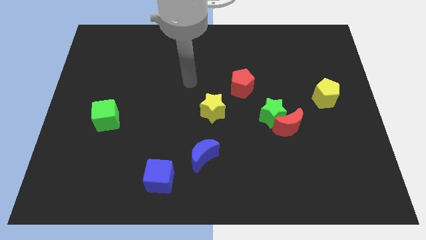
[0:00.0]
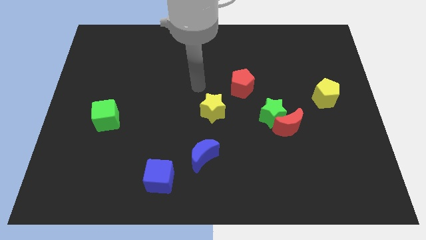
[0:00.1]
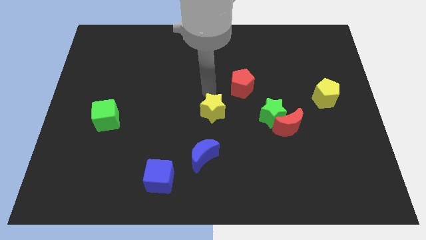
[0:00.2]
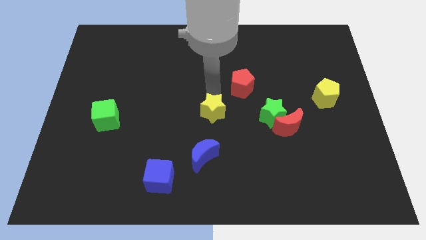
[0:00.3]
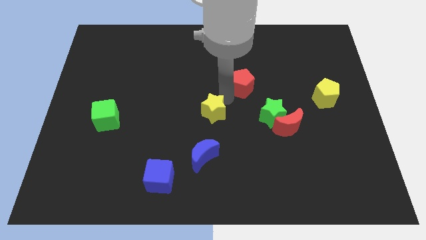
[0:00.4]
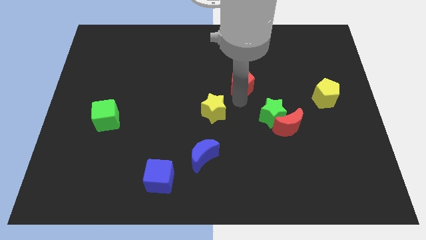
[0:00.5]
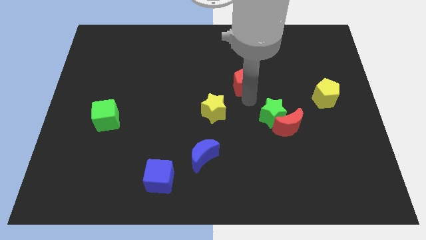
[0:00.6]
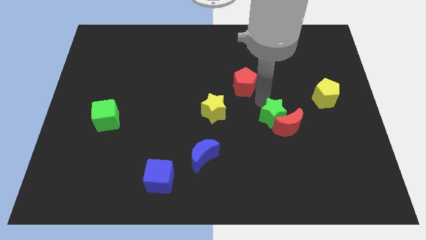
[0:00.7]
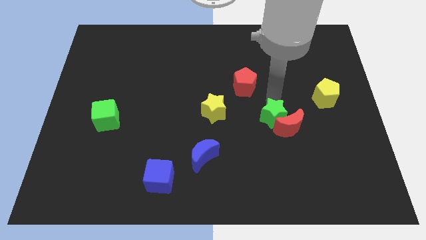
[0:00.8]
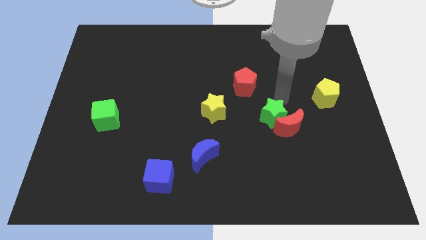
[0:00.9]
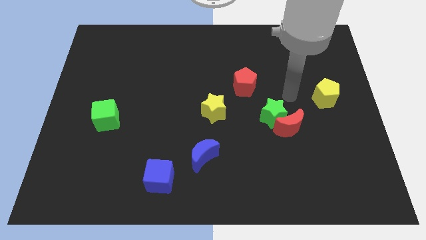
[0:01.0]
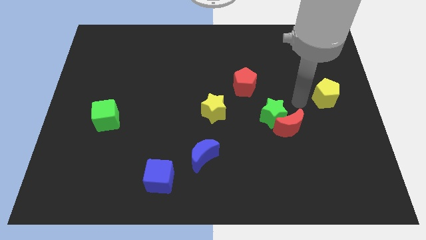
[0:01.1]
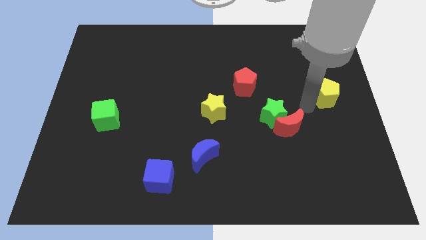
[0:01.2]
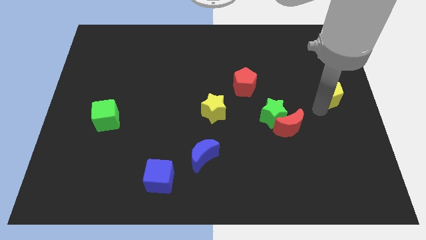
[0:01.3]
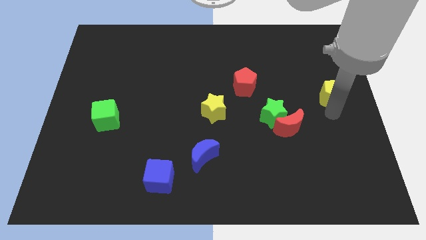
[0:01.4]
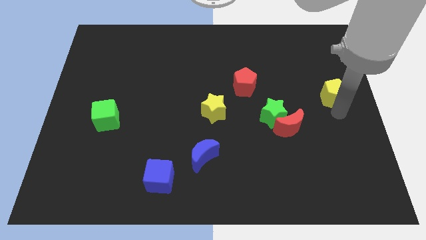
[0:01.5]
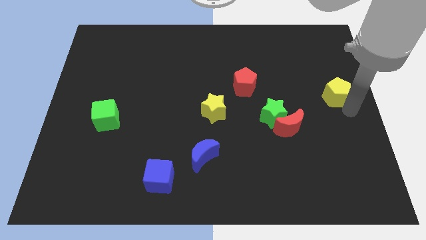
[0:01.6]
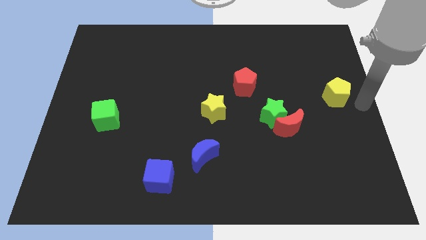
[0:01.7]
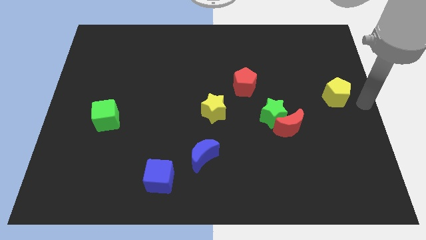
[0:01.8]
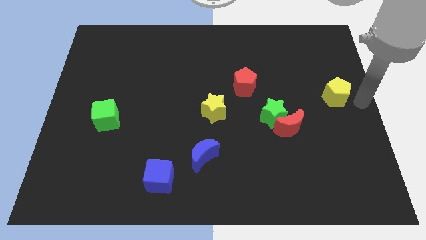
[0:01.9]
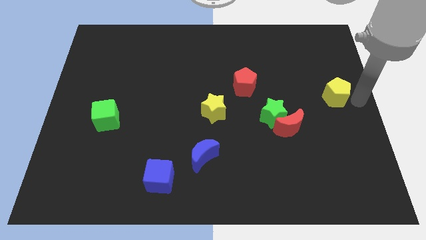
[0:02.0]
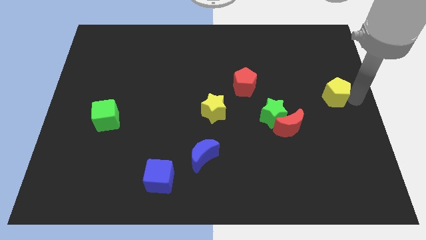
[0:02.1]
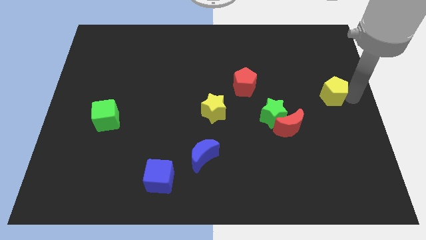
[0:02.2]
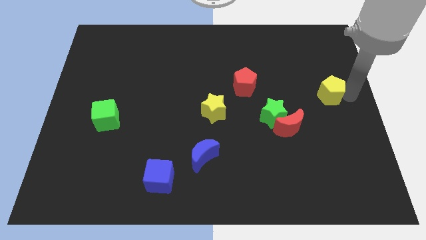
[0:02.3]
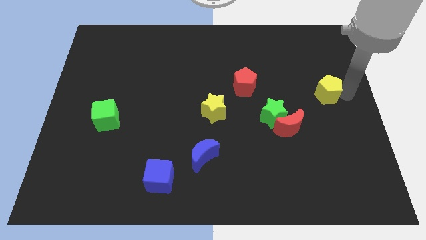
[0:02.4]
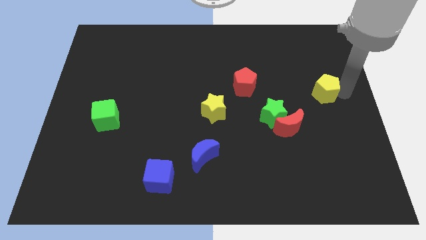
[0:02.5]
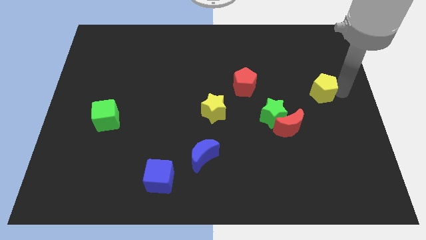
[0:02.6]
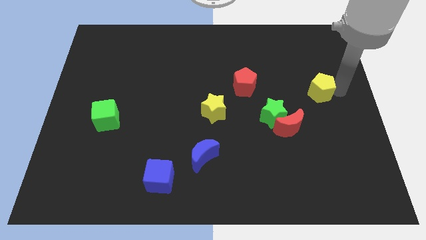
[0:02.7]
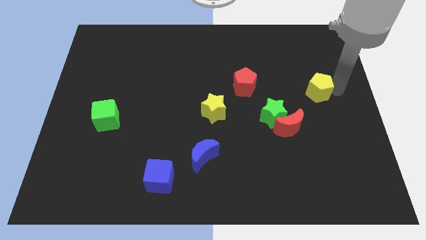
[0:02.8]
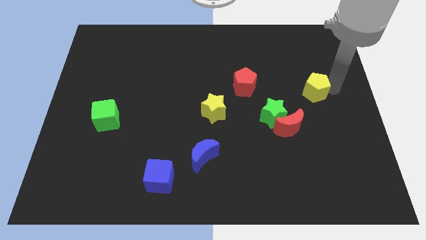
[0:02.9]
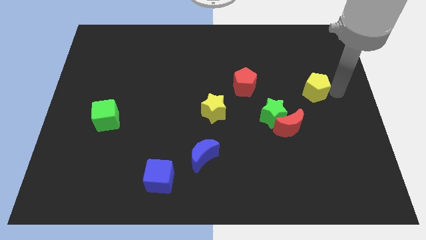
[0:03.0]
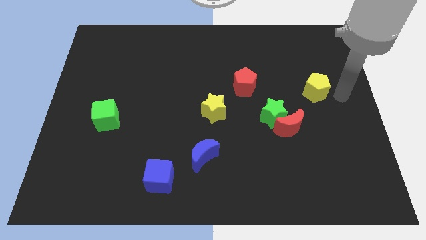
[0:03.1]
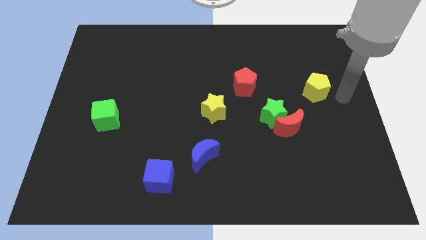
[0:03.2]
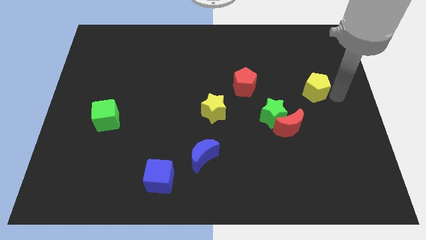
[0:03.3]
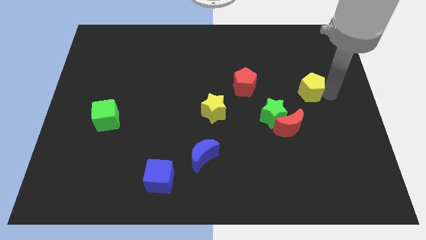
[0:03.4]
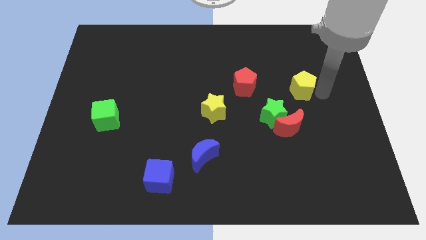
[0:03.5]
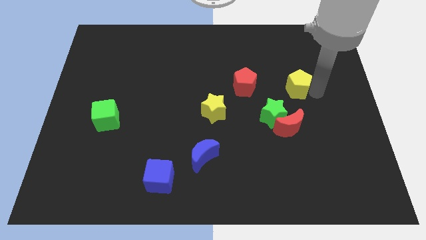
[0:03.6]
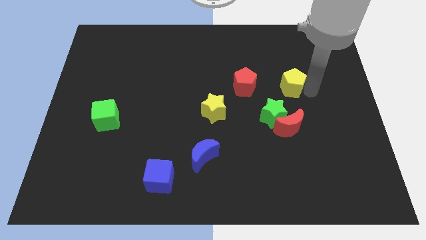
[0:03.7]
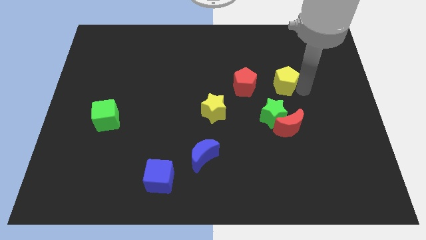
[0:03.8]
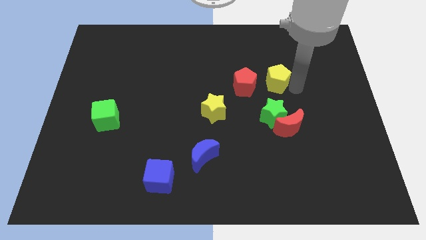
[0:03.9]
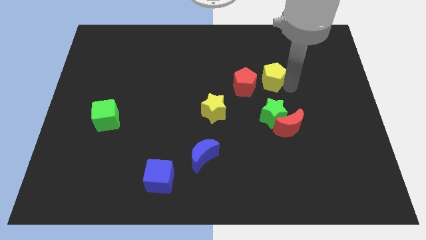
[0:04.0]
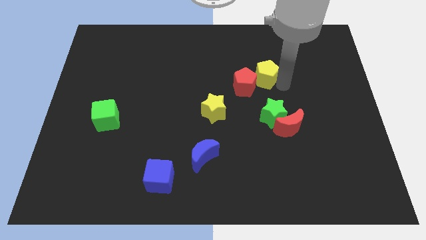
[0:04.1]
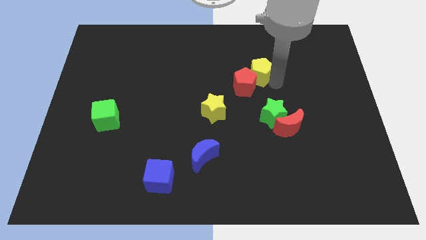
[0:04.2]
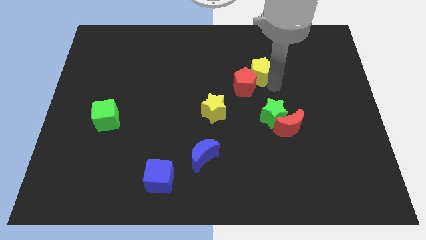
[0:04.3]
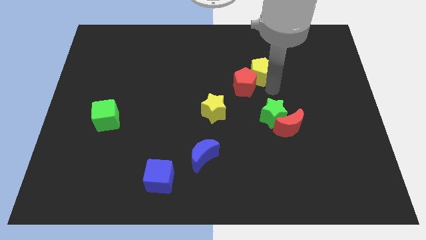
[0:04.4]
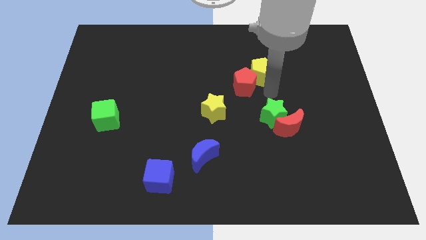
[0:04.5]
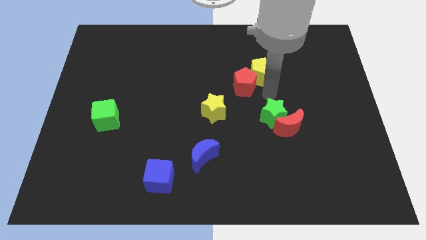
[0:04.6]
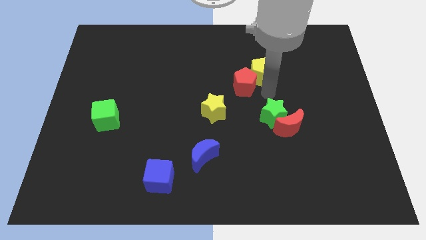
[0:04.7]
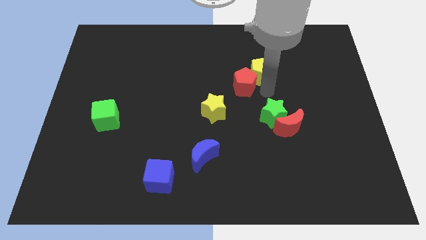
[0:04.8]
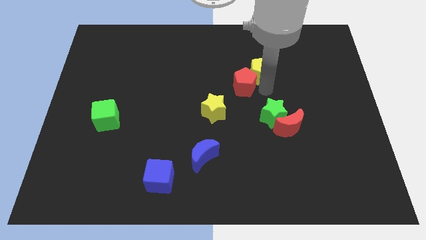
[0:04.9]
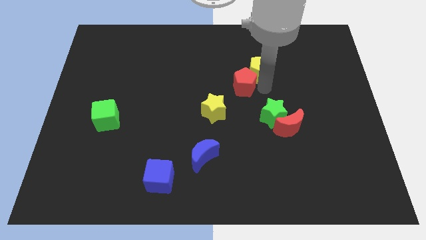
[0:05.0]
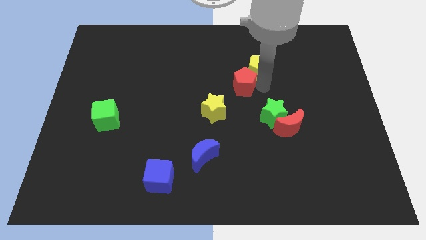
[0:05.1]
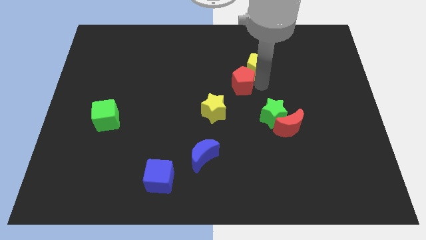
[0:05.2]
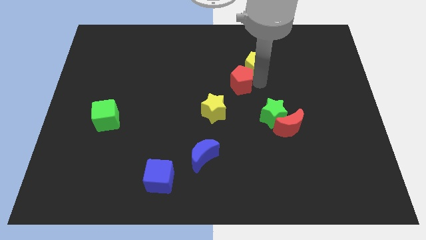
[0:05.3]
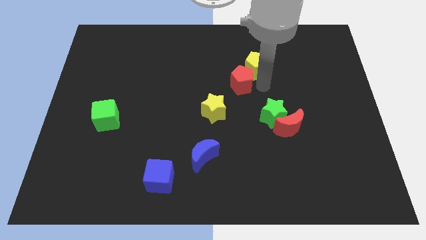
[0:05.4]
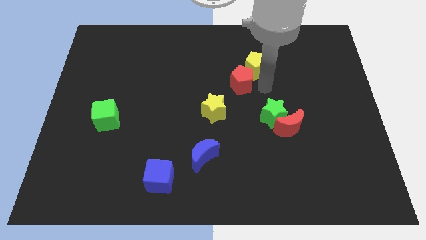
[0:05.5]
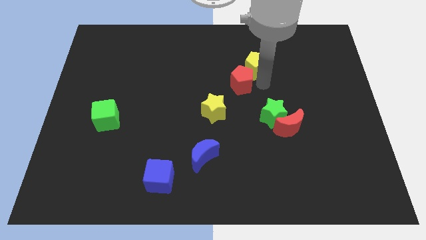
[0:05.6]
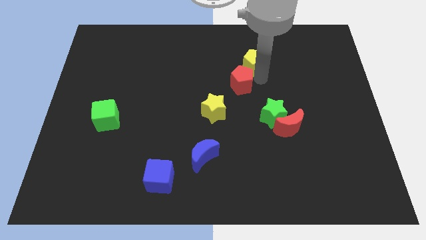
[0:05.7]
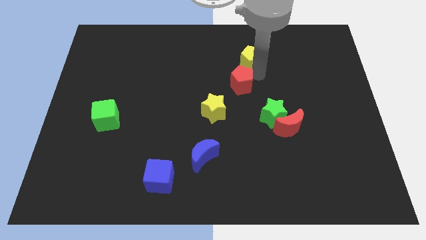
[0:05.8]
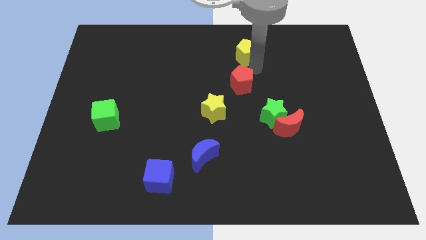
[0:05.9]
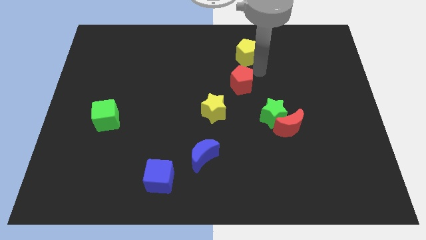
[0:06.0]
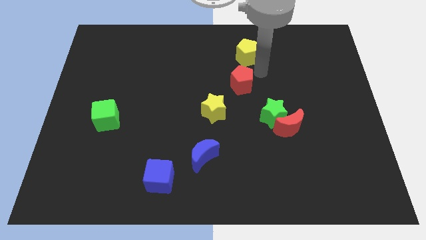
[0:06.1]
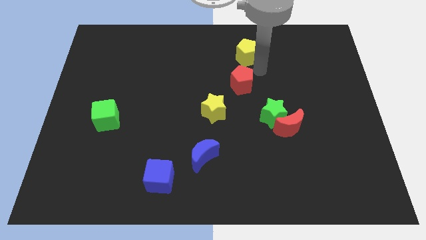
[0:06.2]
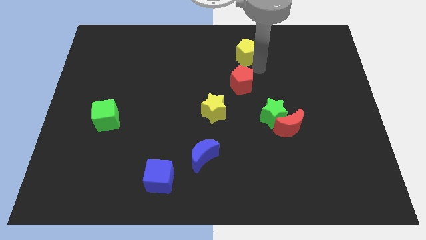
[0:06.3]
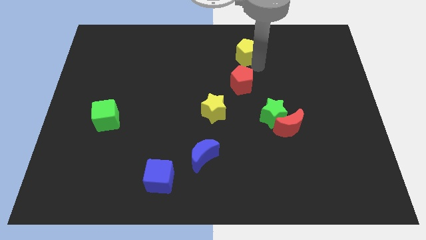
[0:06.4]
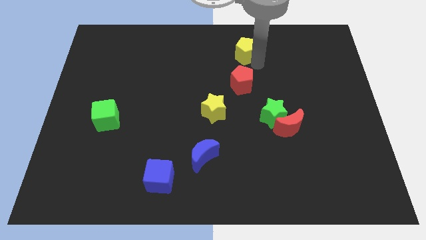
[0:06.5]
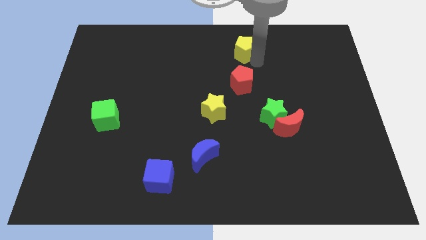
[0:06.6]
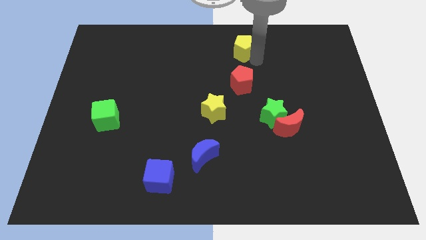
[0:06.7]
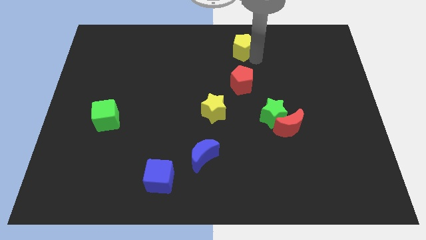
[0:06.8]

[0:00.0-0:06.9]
move the yellow pentagon to the towards your base

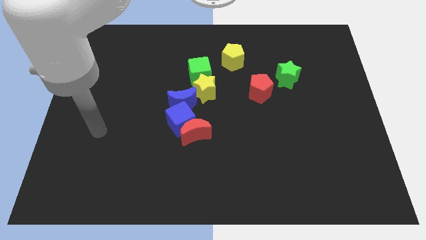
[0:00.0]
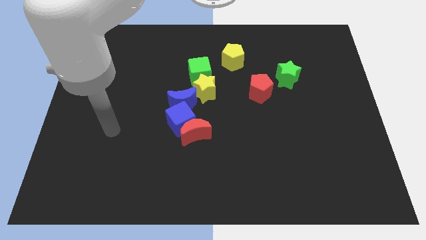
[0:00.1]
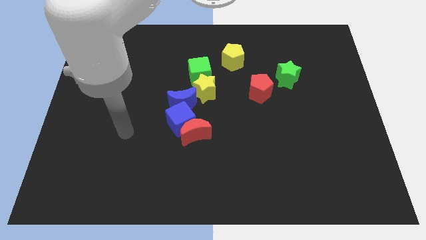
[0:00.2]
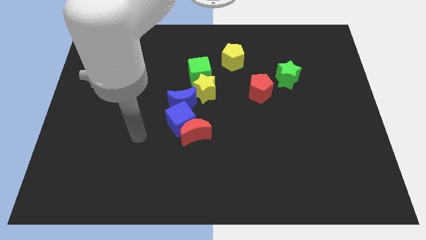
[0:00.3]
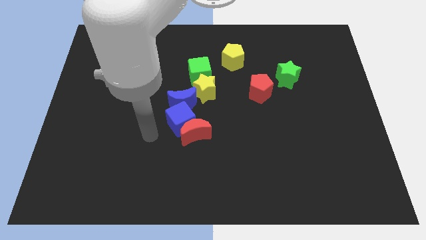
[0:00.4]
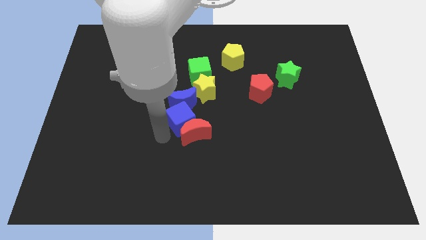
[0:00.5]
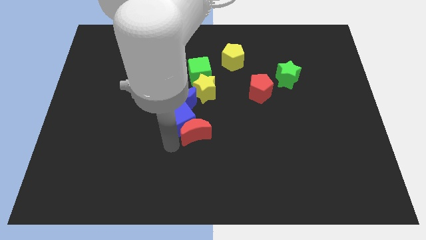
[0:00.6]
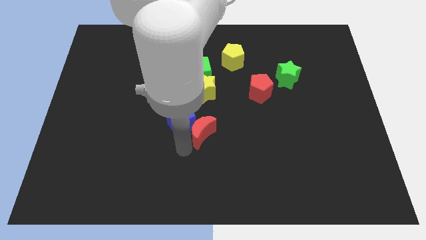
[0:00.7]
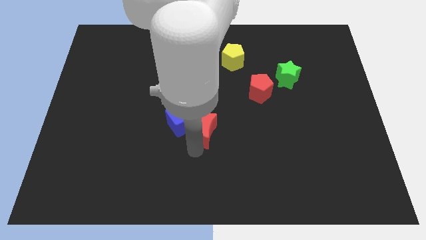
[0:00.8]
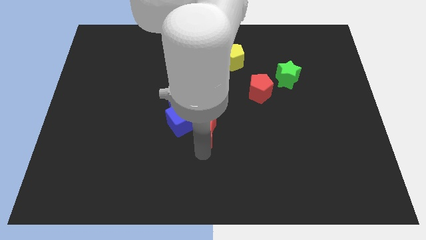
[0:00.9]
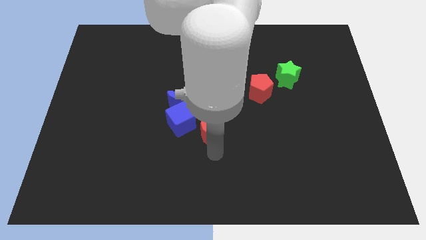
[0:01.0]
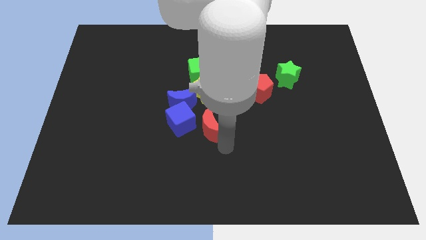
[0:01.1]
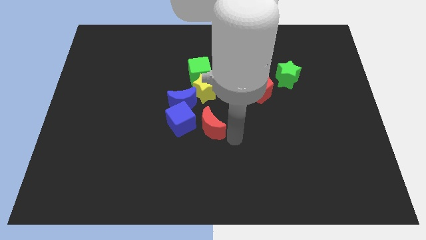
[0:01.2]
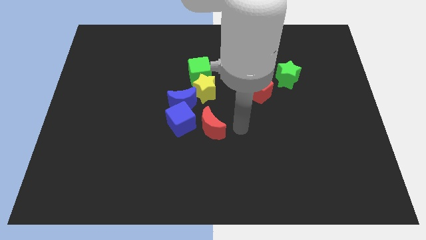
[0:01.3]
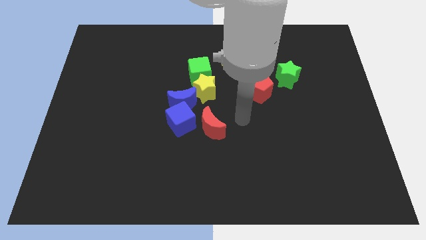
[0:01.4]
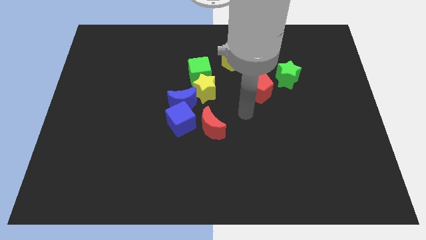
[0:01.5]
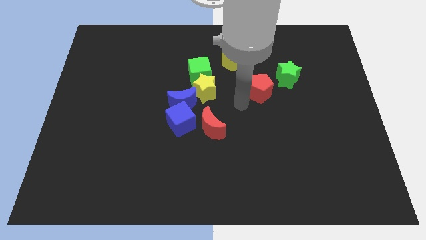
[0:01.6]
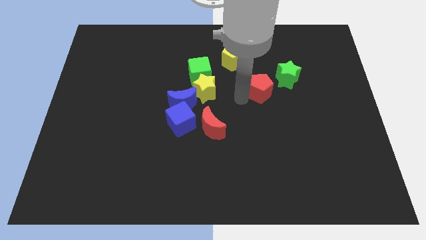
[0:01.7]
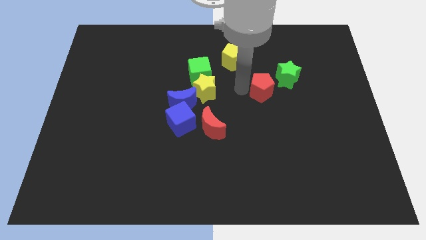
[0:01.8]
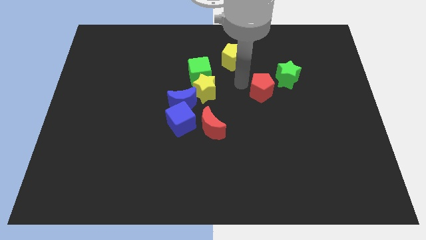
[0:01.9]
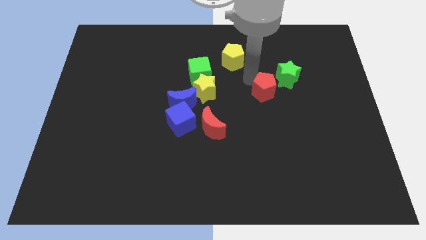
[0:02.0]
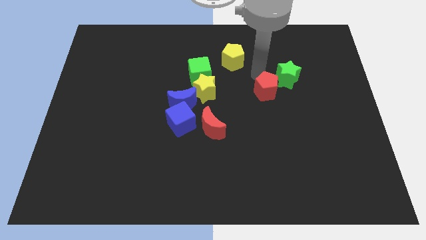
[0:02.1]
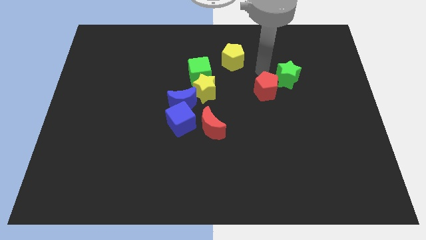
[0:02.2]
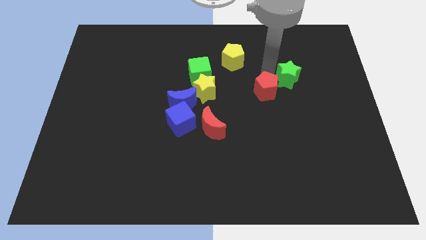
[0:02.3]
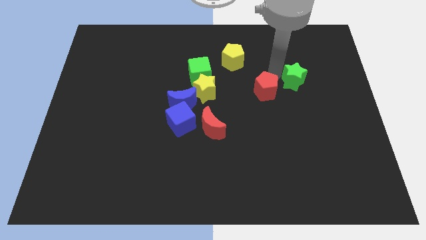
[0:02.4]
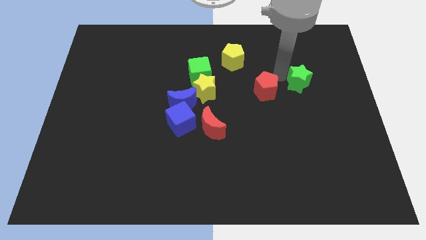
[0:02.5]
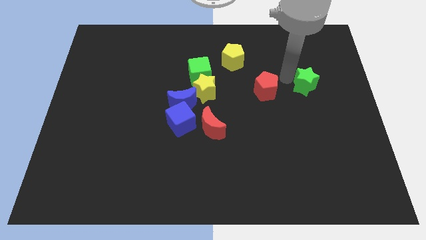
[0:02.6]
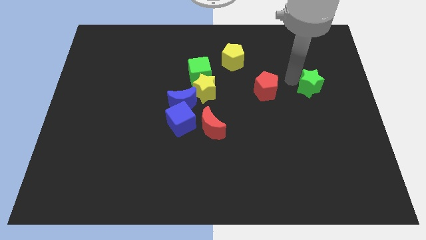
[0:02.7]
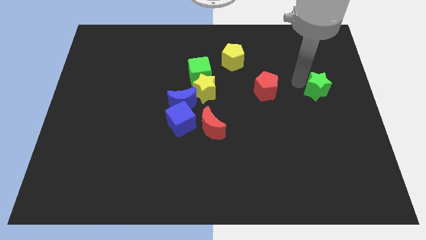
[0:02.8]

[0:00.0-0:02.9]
move the green star to the center right
